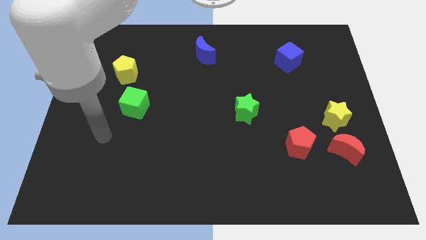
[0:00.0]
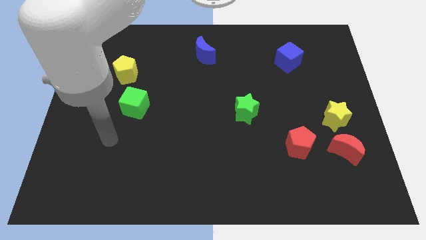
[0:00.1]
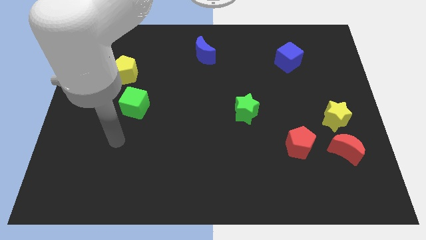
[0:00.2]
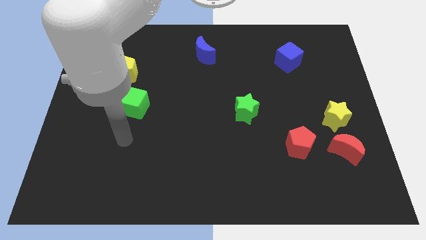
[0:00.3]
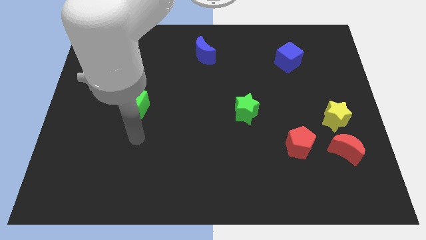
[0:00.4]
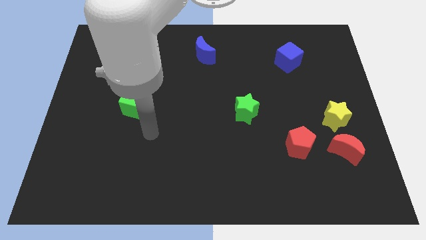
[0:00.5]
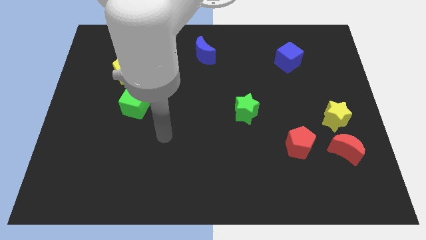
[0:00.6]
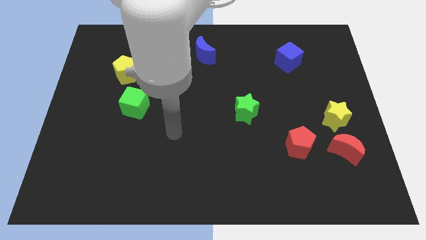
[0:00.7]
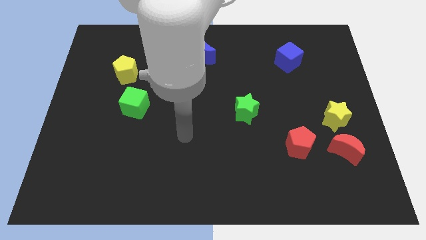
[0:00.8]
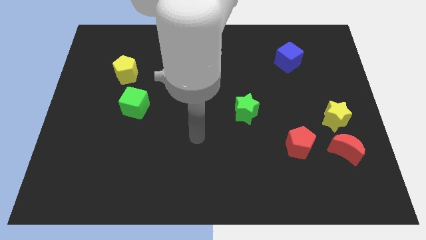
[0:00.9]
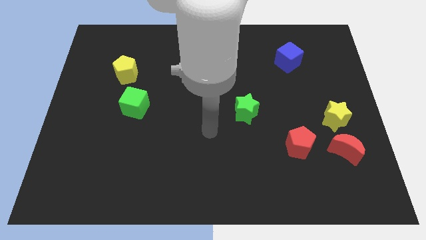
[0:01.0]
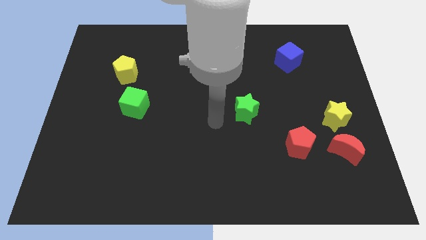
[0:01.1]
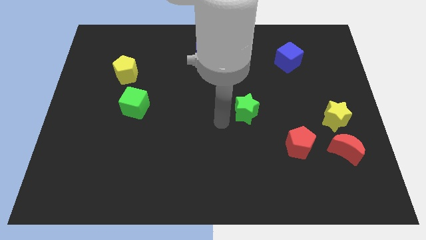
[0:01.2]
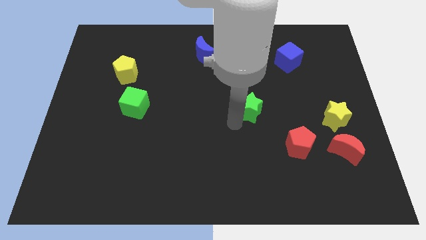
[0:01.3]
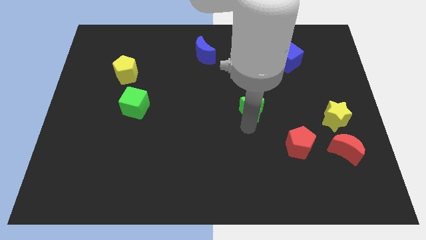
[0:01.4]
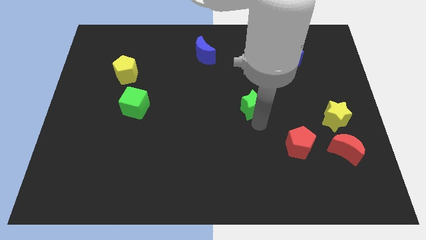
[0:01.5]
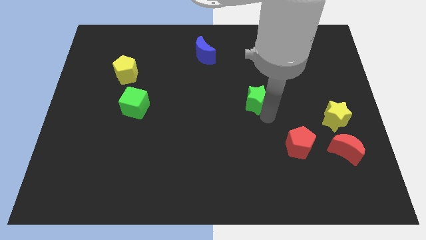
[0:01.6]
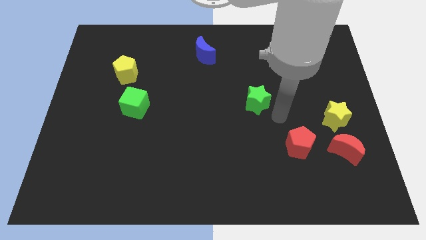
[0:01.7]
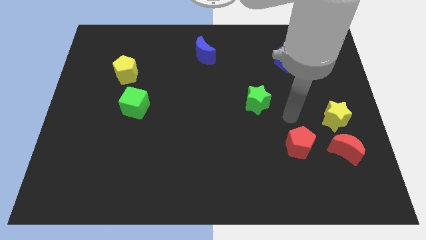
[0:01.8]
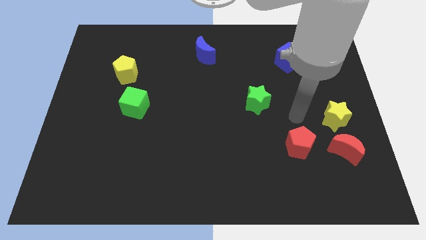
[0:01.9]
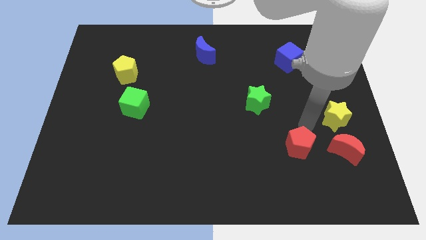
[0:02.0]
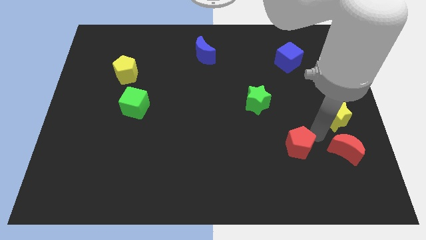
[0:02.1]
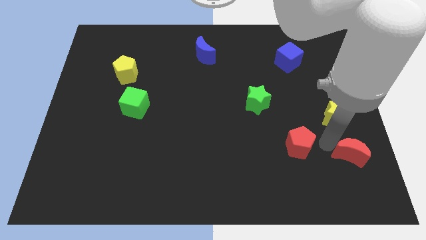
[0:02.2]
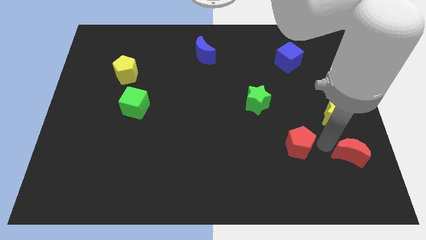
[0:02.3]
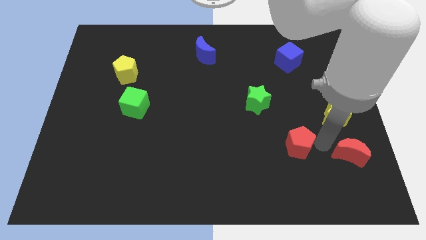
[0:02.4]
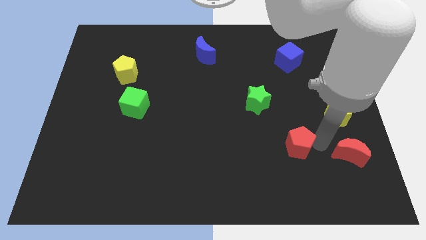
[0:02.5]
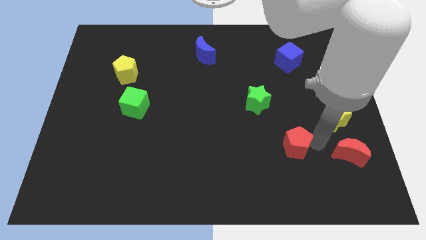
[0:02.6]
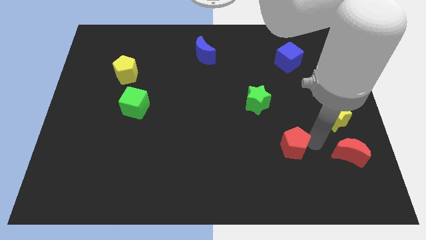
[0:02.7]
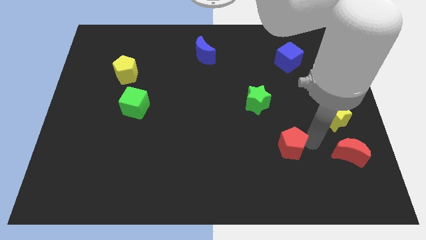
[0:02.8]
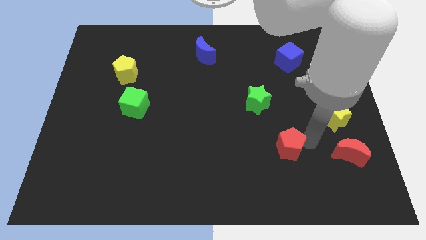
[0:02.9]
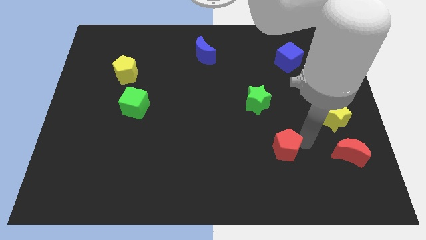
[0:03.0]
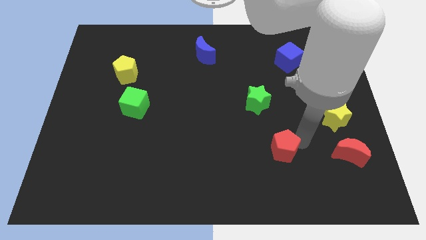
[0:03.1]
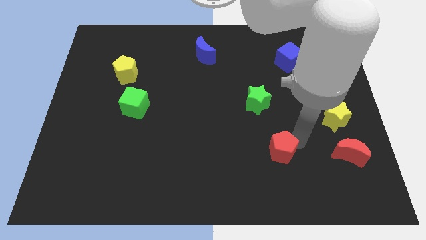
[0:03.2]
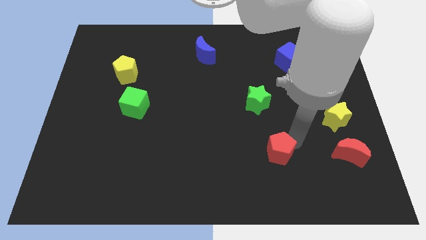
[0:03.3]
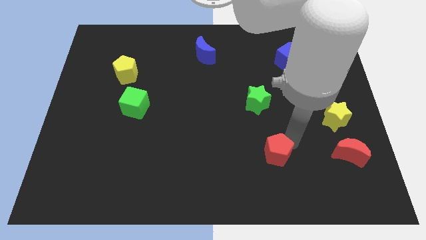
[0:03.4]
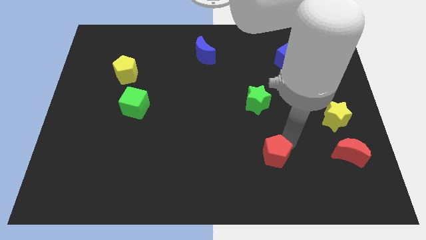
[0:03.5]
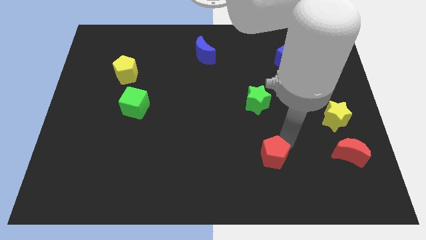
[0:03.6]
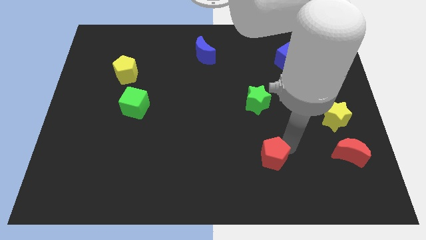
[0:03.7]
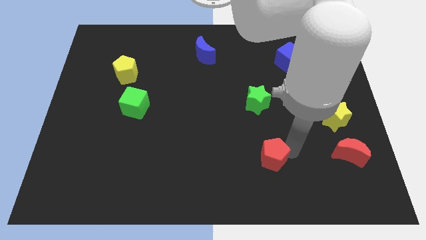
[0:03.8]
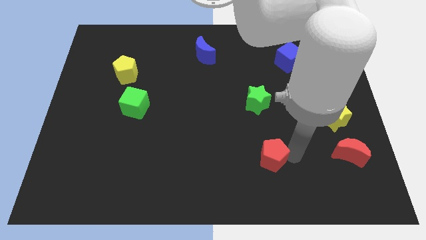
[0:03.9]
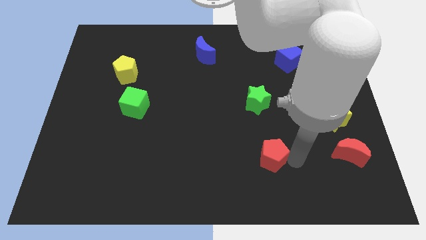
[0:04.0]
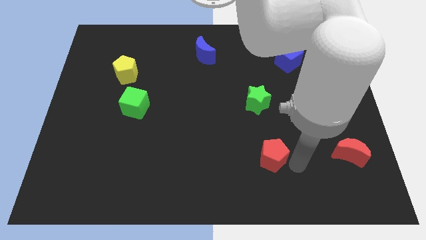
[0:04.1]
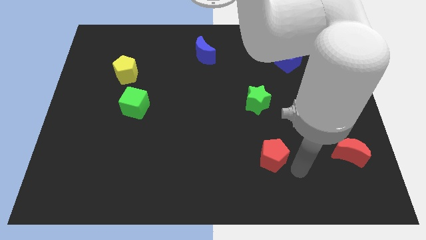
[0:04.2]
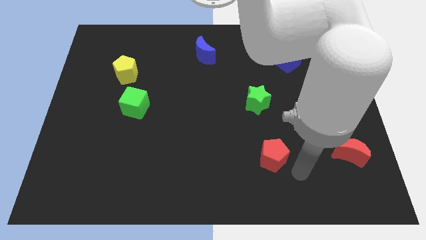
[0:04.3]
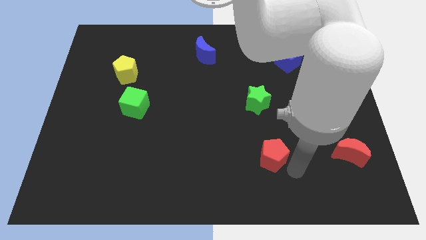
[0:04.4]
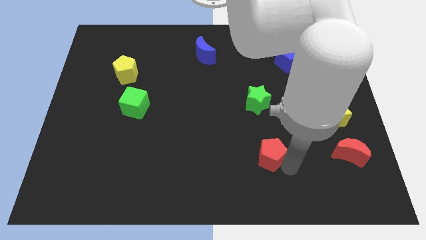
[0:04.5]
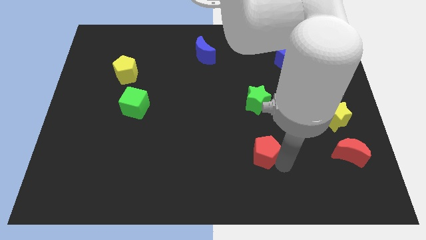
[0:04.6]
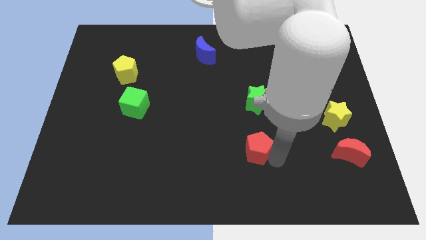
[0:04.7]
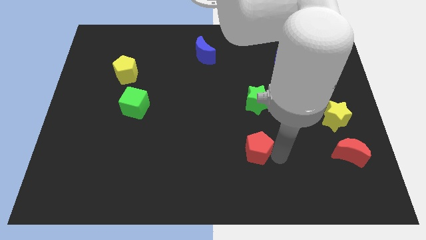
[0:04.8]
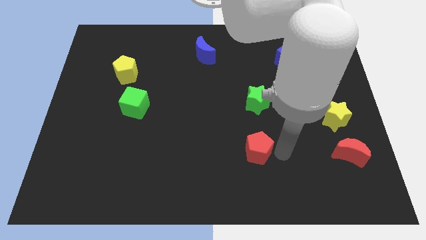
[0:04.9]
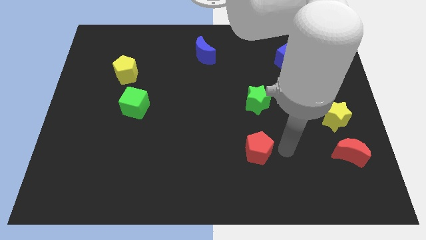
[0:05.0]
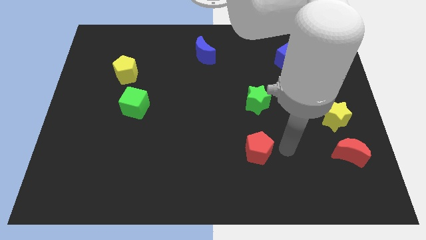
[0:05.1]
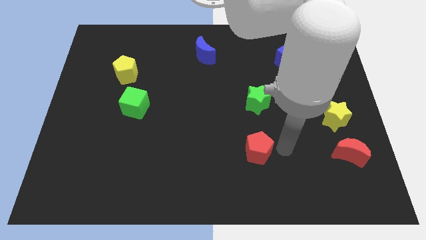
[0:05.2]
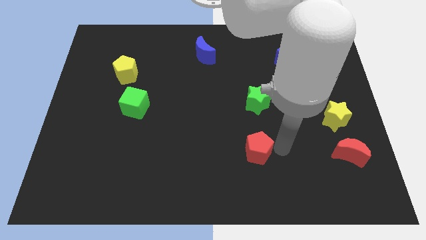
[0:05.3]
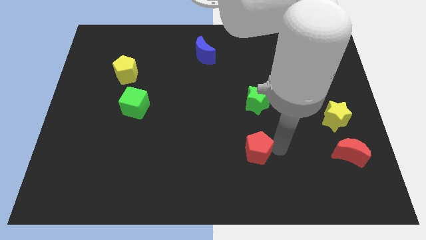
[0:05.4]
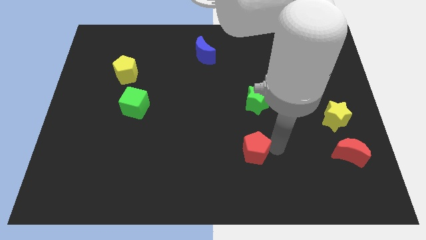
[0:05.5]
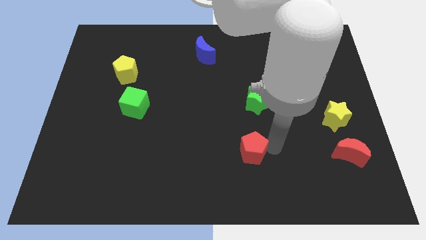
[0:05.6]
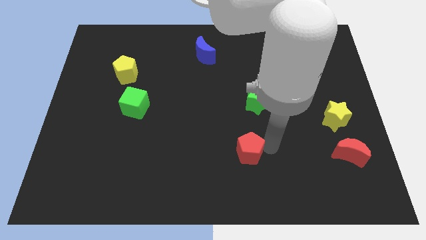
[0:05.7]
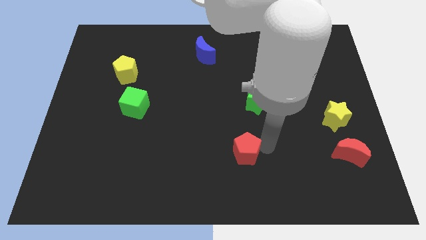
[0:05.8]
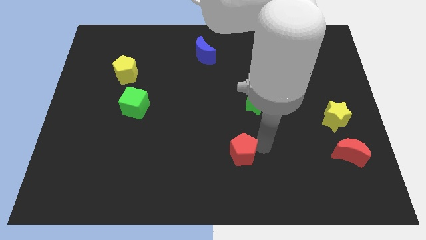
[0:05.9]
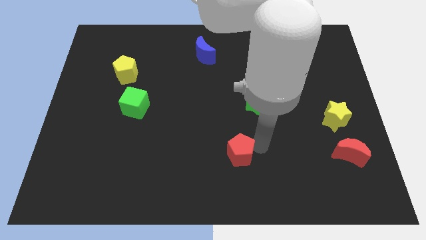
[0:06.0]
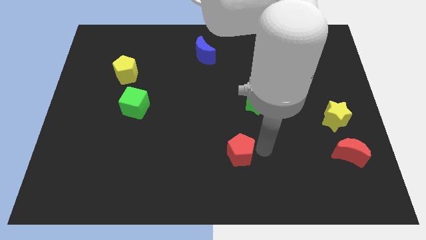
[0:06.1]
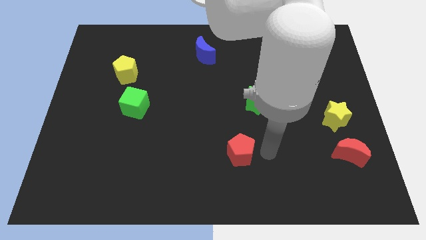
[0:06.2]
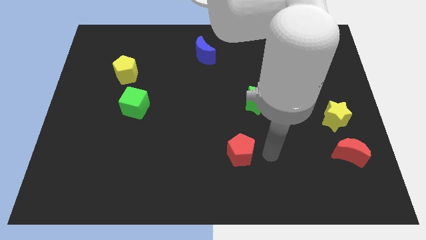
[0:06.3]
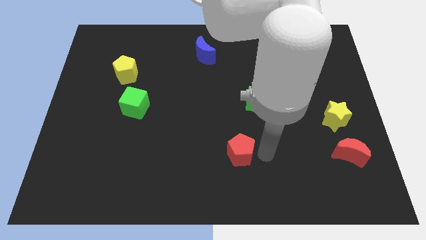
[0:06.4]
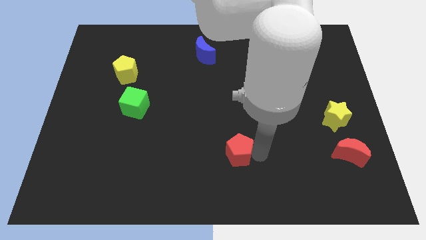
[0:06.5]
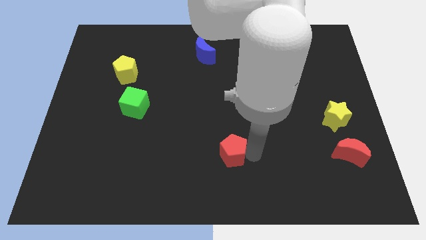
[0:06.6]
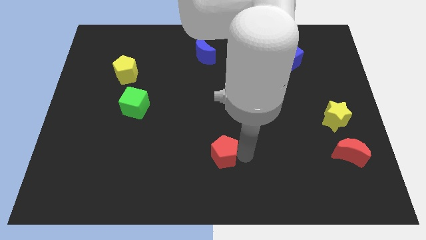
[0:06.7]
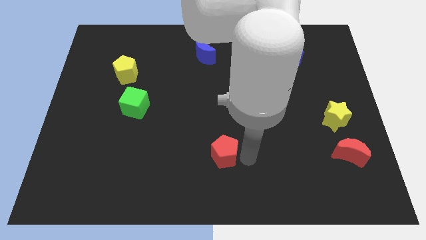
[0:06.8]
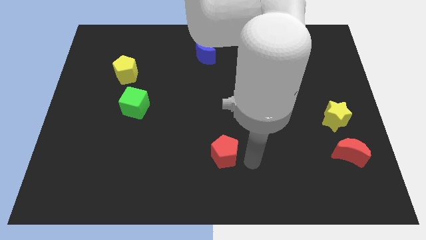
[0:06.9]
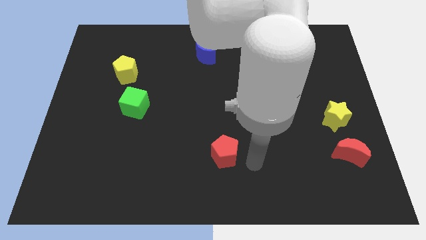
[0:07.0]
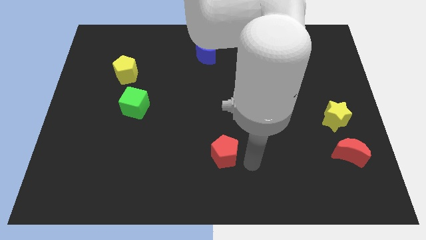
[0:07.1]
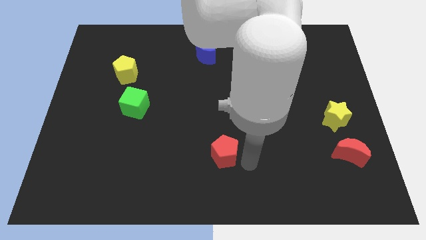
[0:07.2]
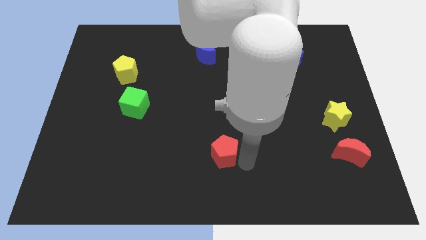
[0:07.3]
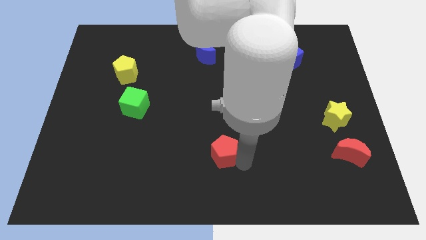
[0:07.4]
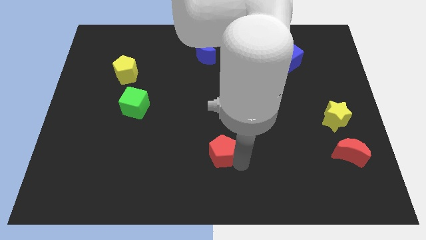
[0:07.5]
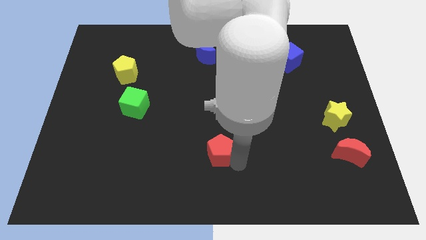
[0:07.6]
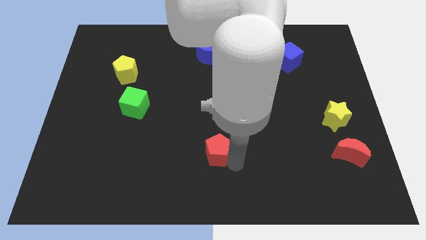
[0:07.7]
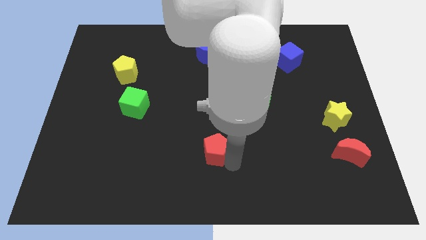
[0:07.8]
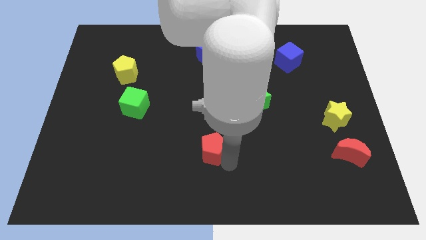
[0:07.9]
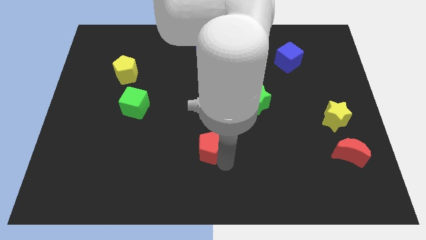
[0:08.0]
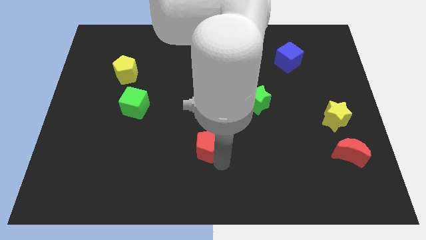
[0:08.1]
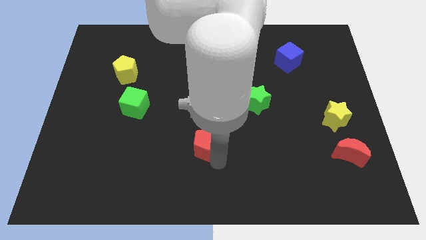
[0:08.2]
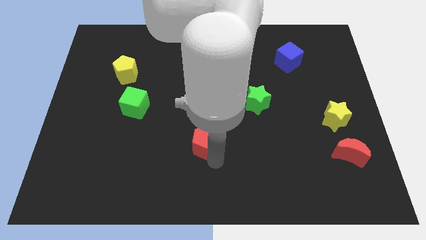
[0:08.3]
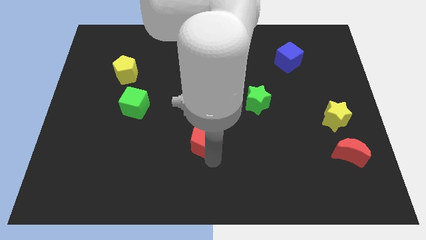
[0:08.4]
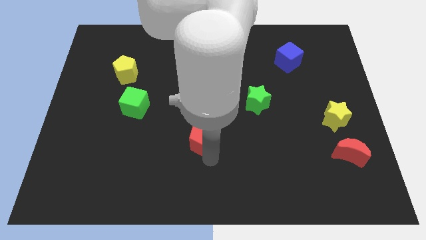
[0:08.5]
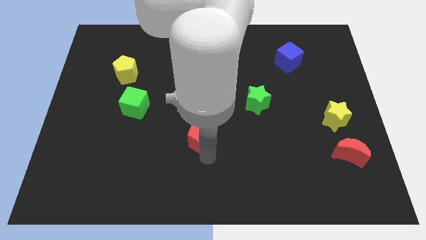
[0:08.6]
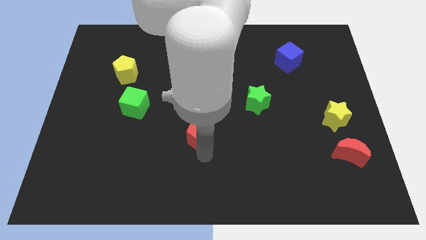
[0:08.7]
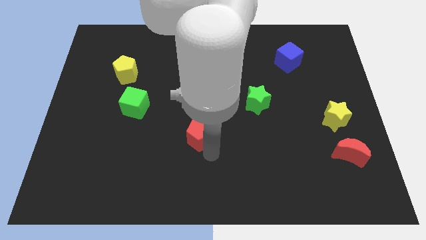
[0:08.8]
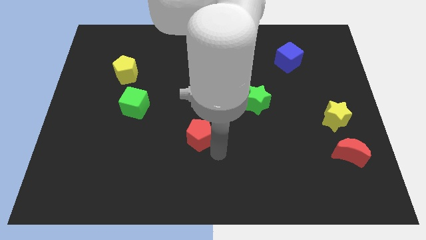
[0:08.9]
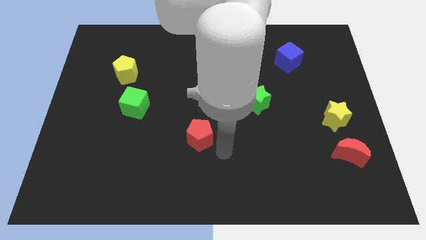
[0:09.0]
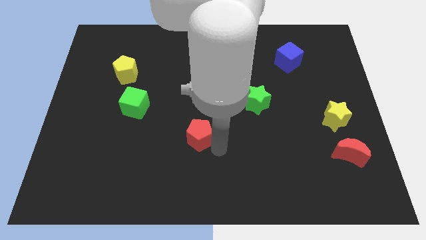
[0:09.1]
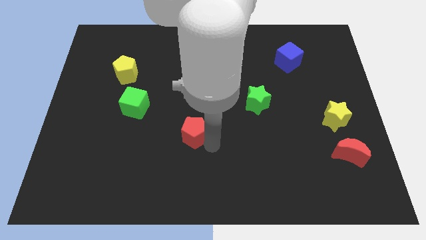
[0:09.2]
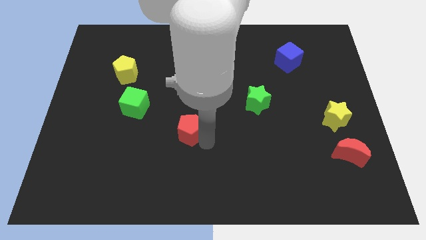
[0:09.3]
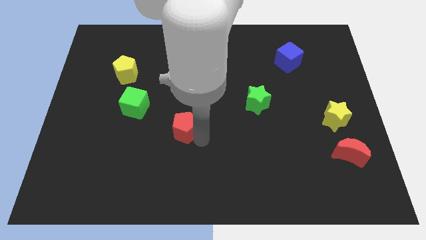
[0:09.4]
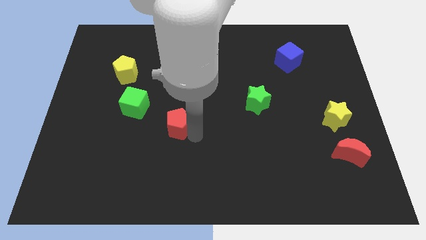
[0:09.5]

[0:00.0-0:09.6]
move the red pentagon diagonally down and to the right of the green cube
